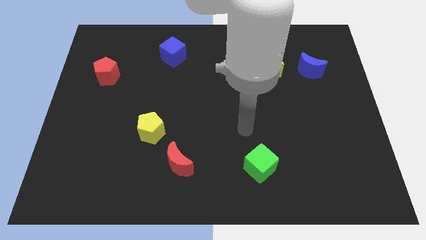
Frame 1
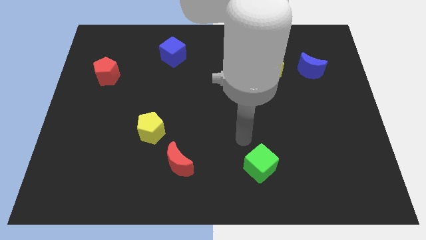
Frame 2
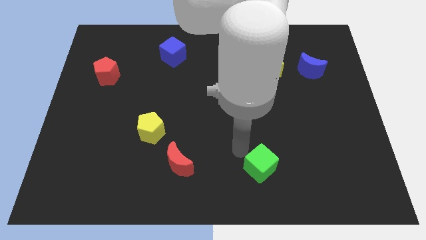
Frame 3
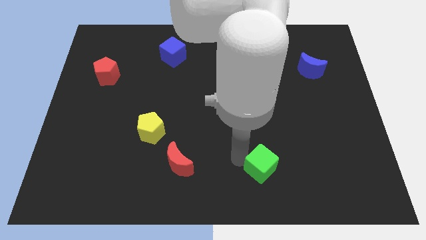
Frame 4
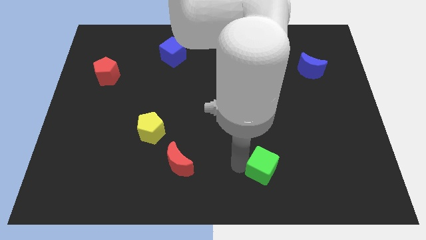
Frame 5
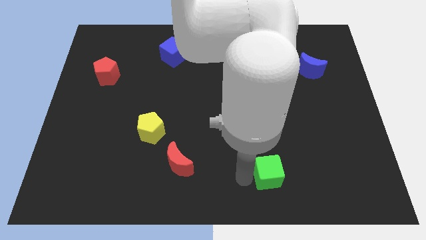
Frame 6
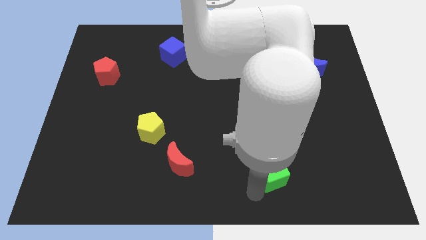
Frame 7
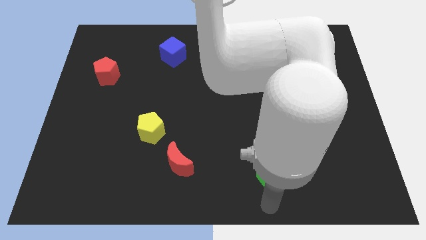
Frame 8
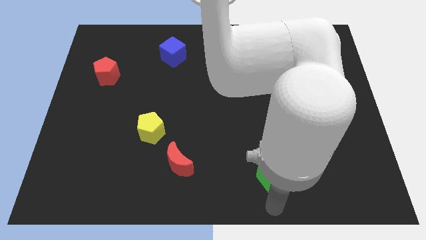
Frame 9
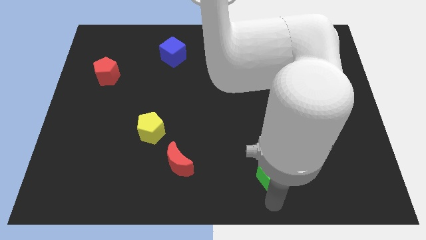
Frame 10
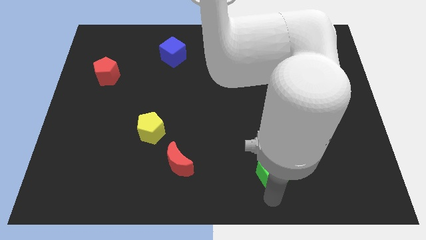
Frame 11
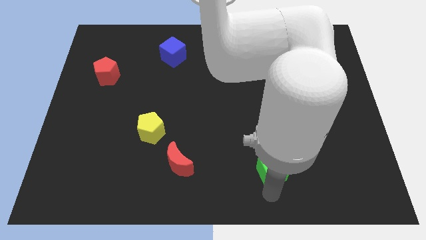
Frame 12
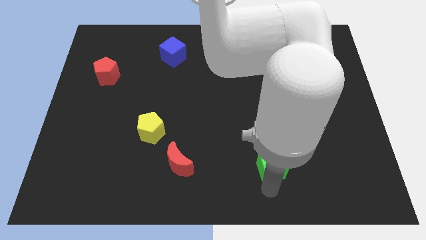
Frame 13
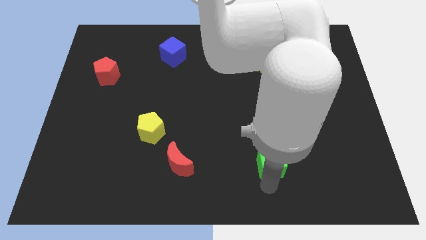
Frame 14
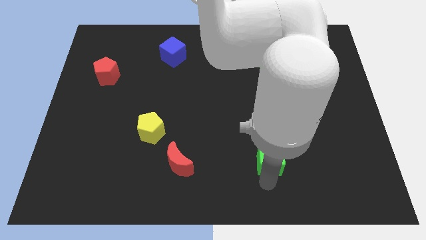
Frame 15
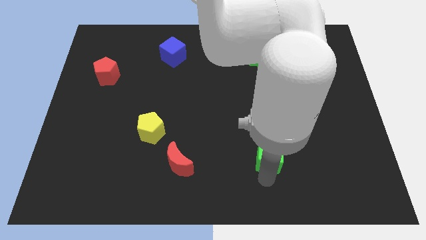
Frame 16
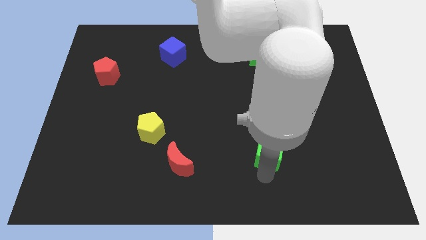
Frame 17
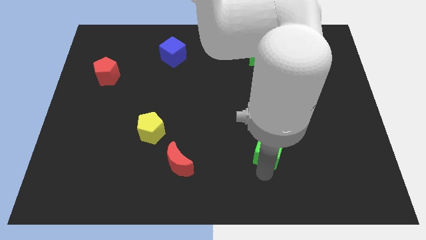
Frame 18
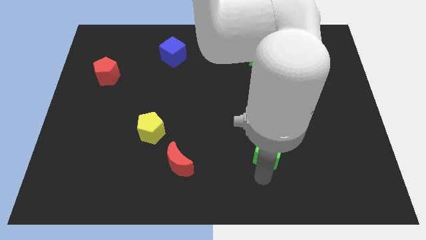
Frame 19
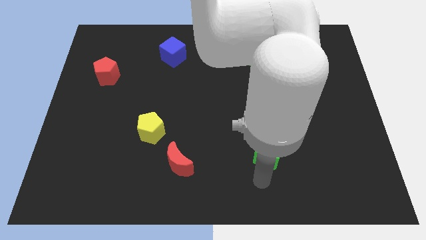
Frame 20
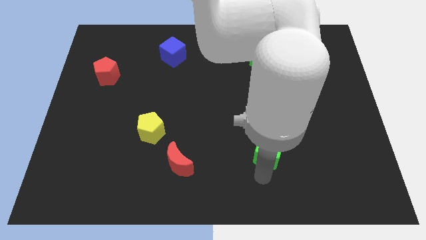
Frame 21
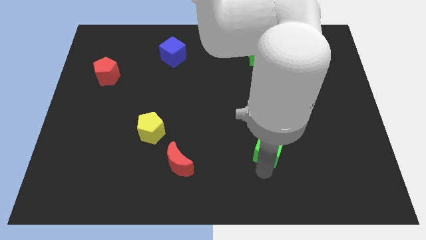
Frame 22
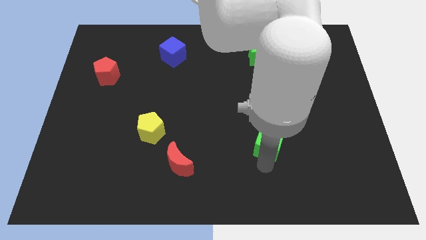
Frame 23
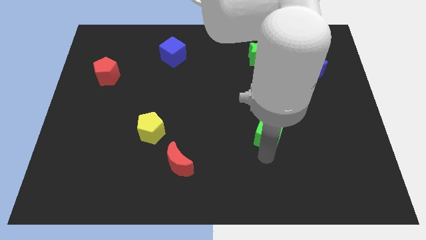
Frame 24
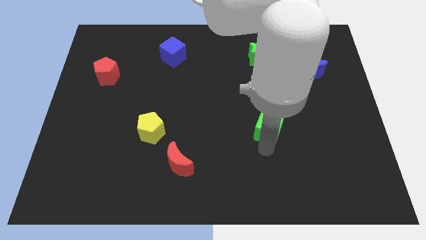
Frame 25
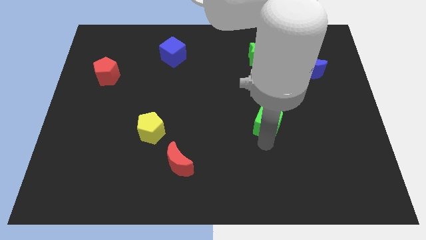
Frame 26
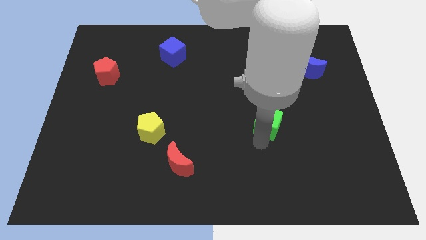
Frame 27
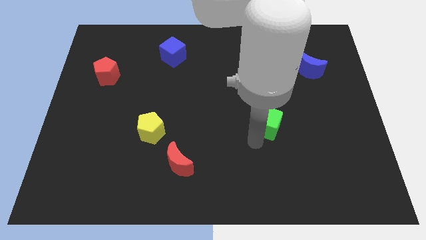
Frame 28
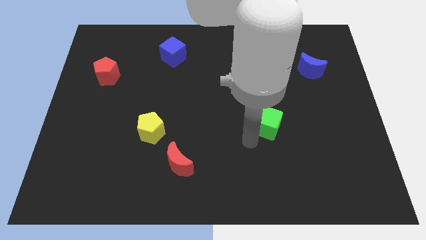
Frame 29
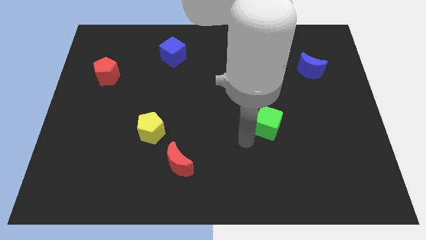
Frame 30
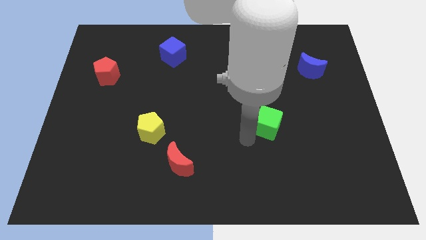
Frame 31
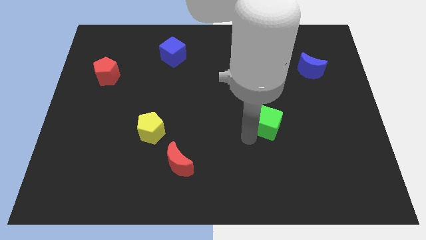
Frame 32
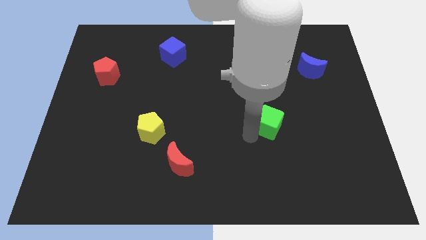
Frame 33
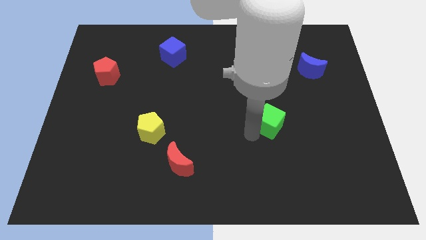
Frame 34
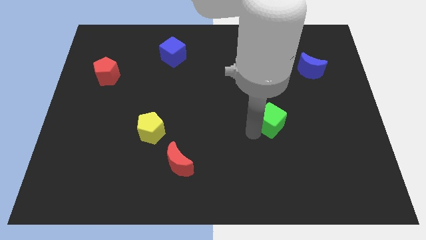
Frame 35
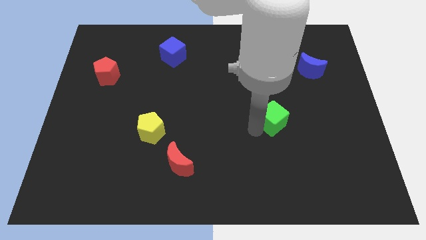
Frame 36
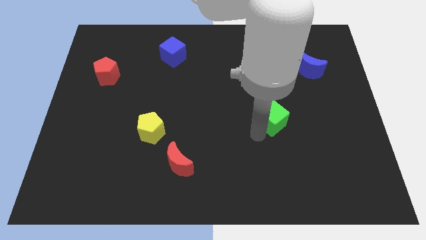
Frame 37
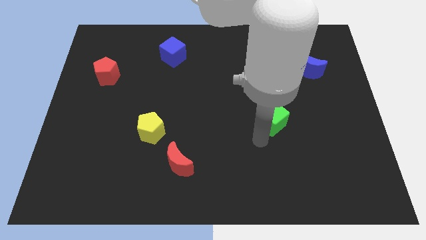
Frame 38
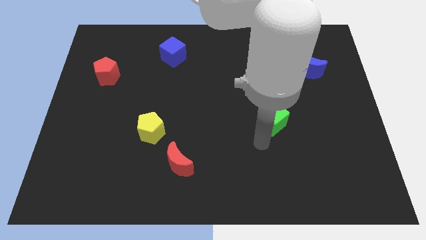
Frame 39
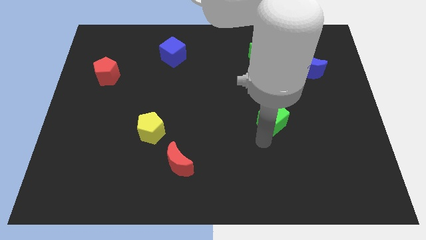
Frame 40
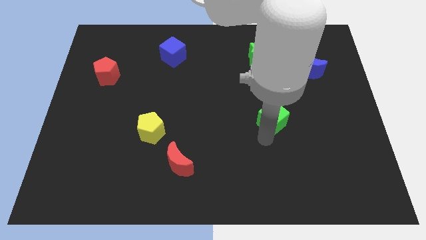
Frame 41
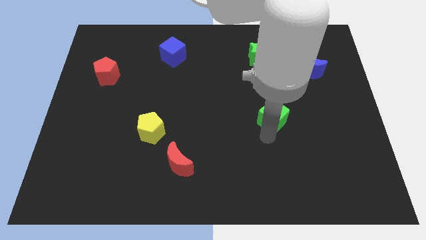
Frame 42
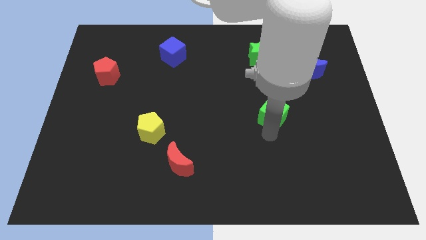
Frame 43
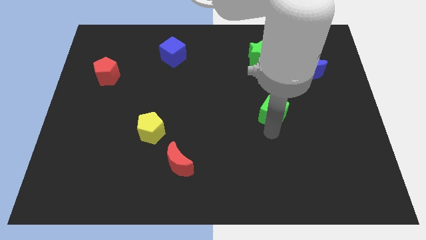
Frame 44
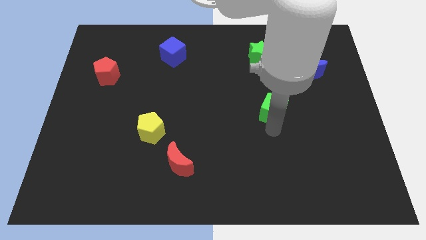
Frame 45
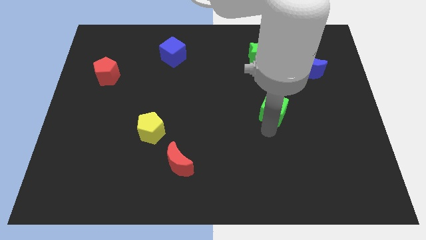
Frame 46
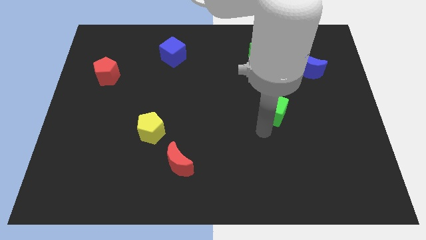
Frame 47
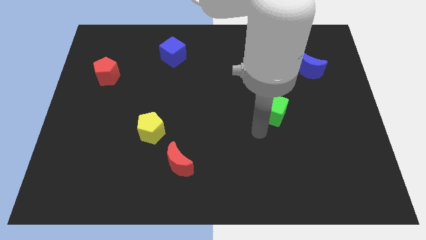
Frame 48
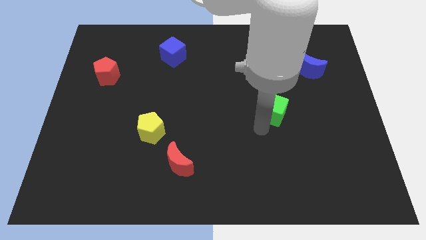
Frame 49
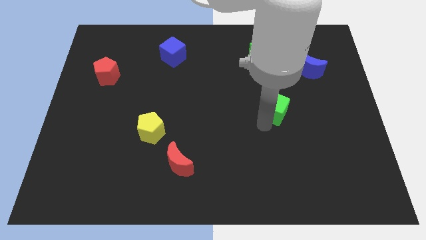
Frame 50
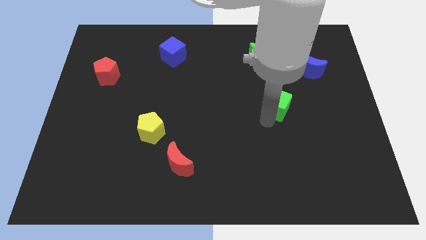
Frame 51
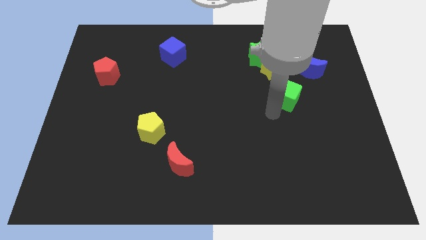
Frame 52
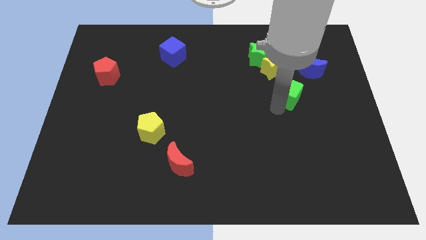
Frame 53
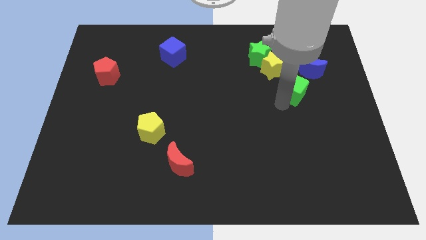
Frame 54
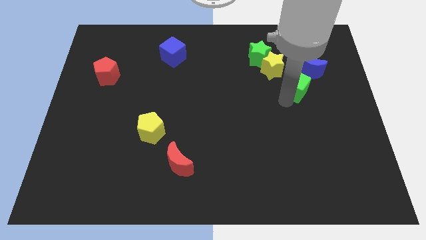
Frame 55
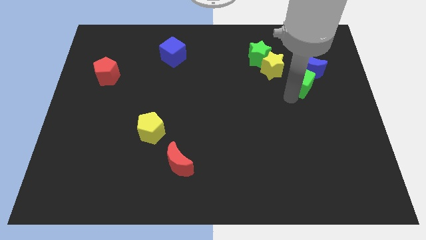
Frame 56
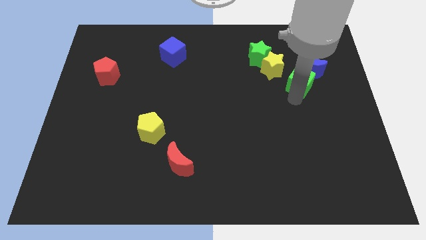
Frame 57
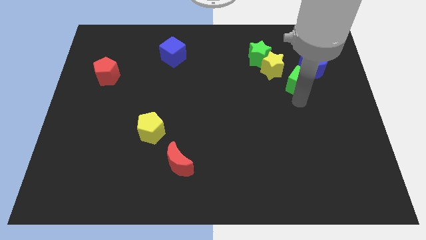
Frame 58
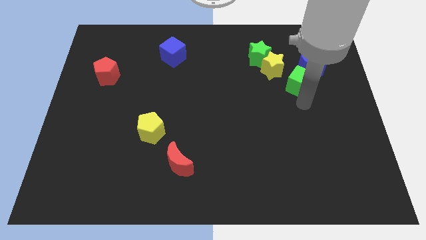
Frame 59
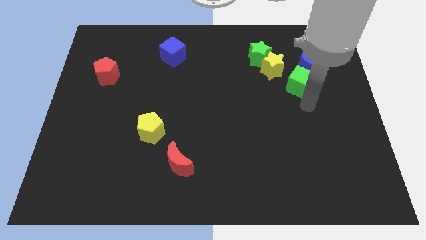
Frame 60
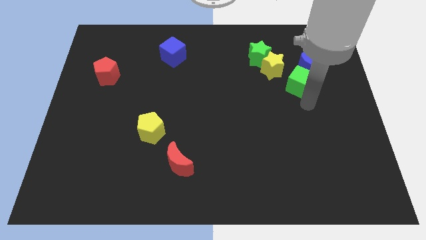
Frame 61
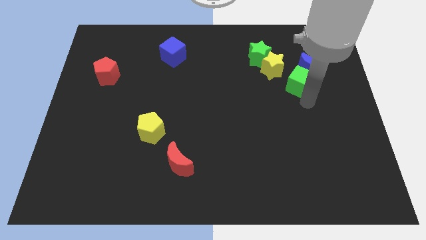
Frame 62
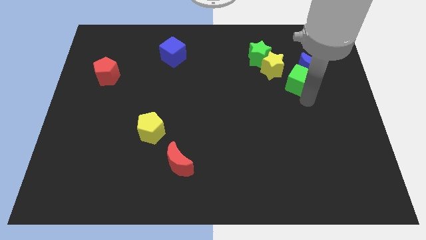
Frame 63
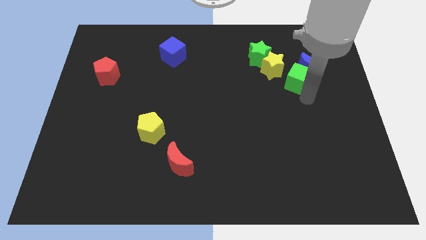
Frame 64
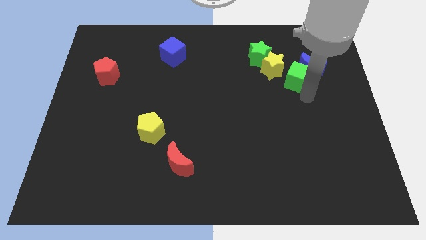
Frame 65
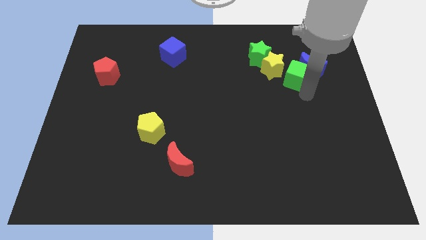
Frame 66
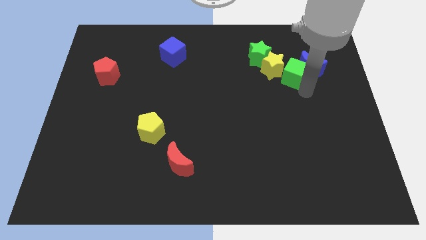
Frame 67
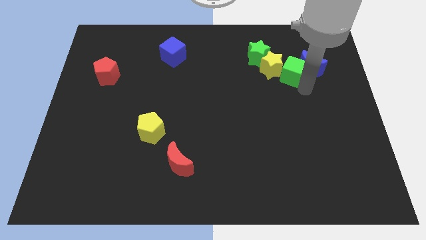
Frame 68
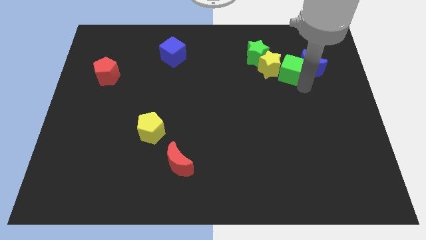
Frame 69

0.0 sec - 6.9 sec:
slide the green cube to the top right of the yellow star

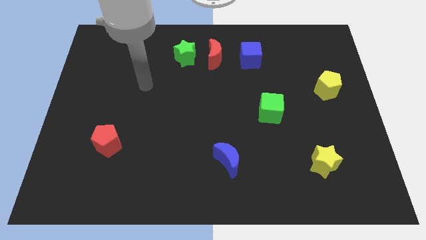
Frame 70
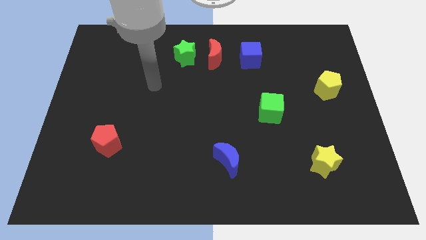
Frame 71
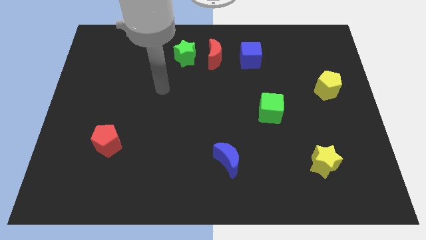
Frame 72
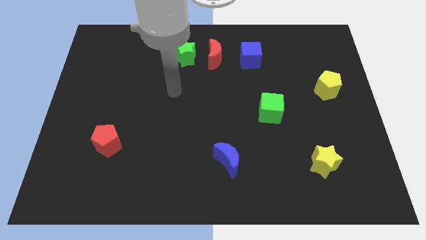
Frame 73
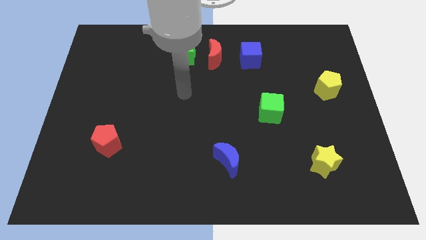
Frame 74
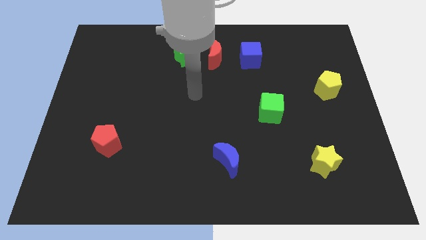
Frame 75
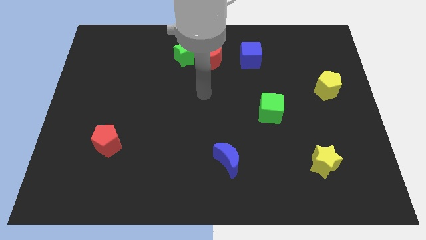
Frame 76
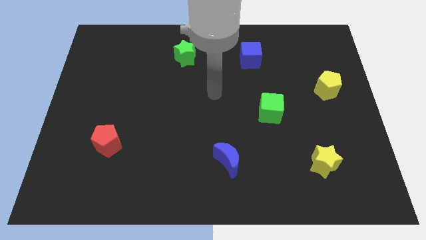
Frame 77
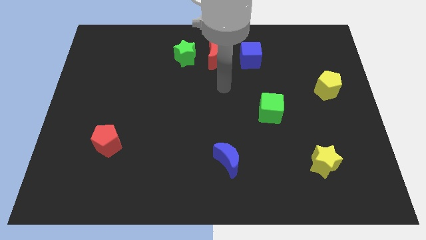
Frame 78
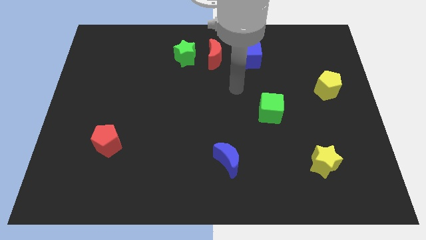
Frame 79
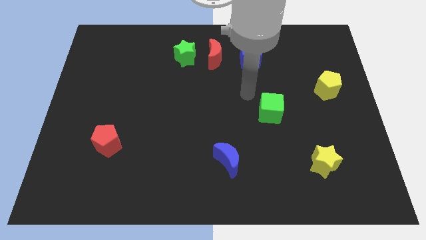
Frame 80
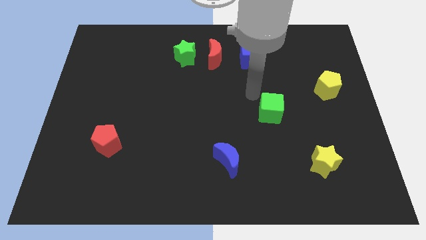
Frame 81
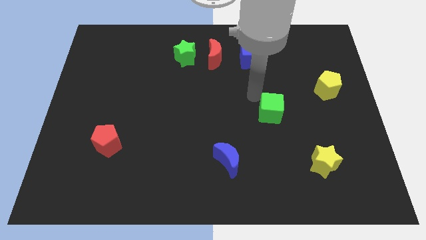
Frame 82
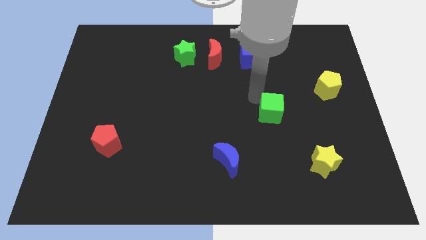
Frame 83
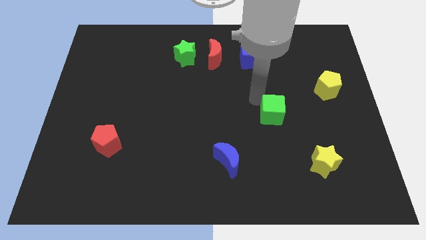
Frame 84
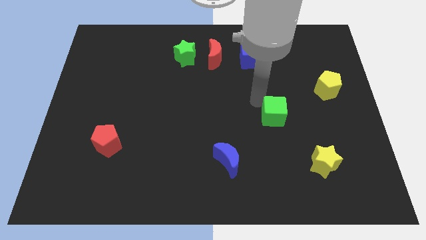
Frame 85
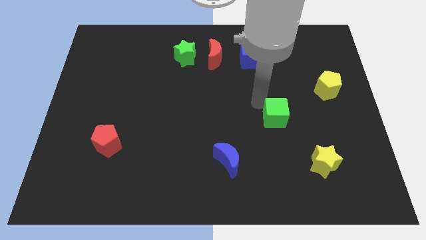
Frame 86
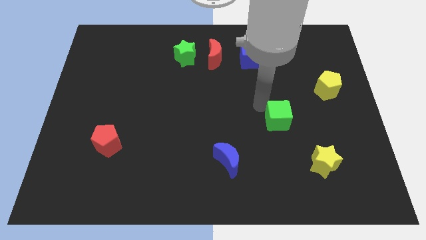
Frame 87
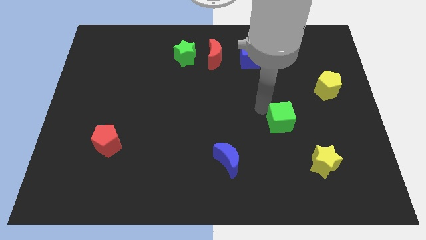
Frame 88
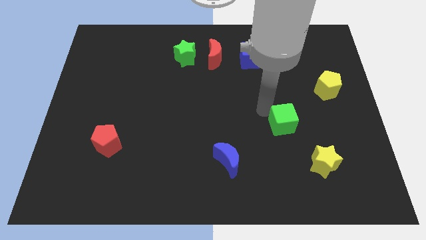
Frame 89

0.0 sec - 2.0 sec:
slide the green cube to the top left of the yellow star
